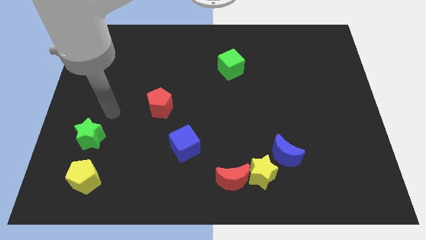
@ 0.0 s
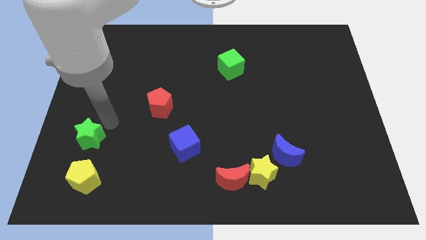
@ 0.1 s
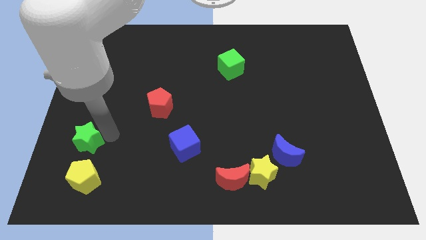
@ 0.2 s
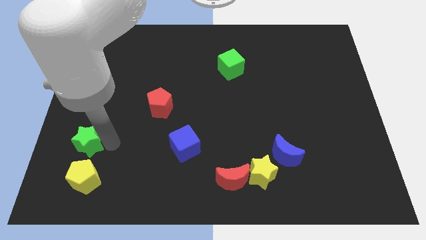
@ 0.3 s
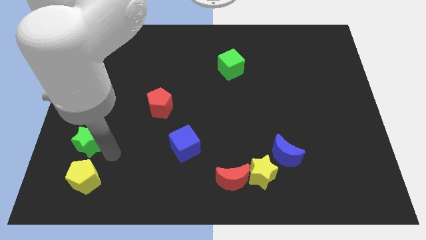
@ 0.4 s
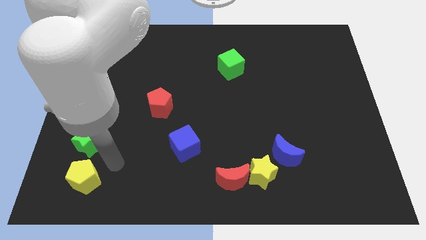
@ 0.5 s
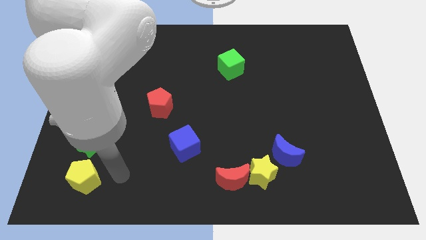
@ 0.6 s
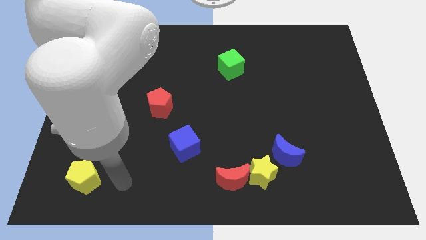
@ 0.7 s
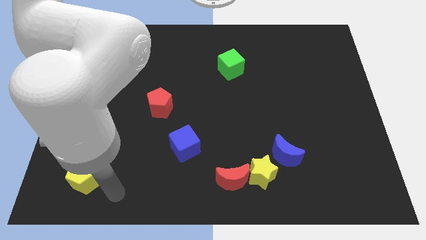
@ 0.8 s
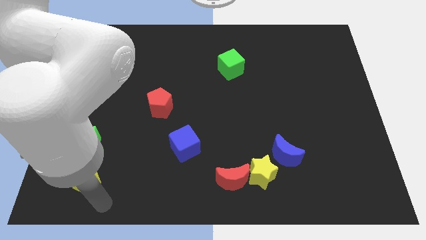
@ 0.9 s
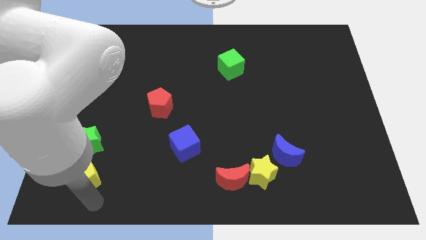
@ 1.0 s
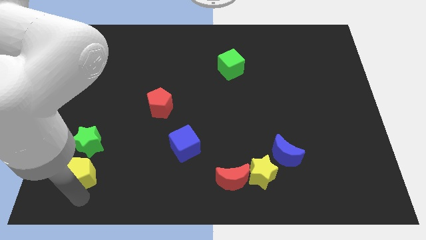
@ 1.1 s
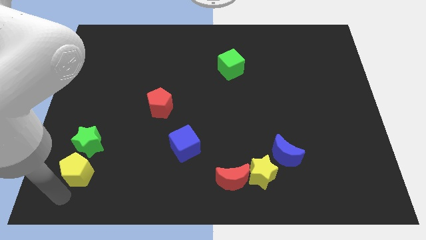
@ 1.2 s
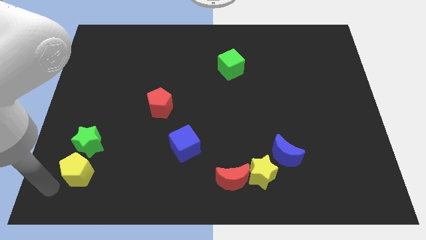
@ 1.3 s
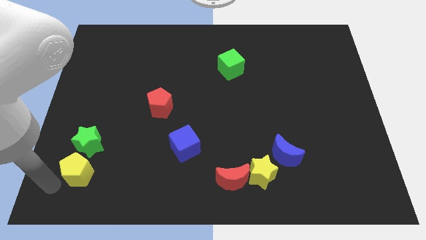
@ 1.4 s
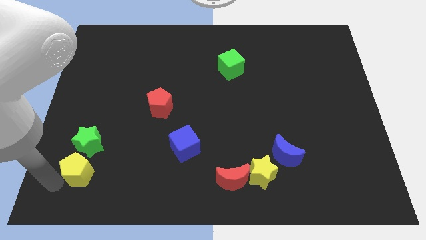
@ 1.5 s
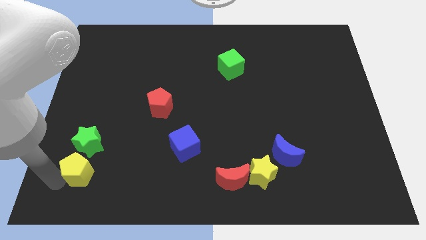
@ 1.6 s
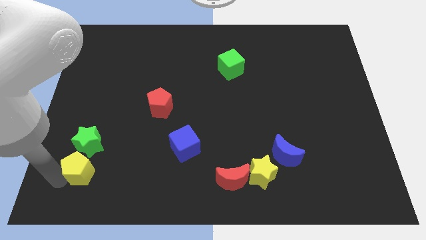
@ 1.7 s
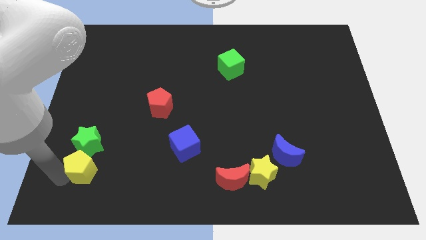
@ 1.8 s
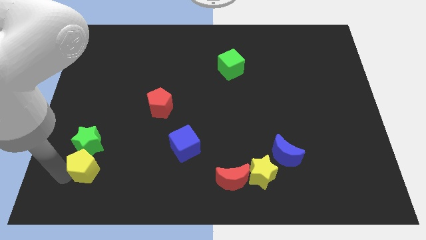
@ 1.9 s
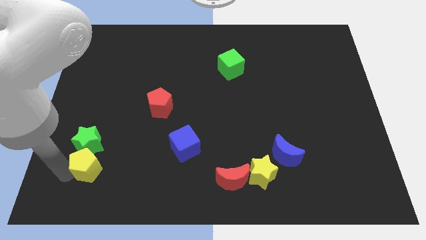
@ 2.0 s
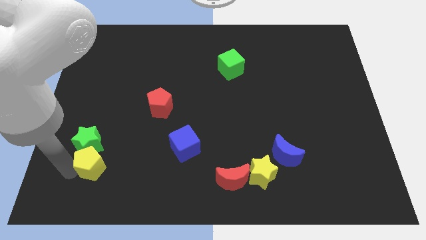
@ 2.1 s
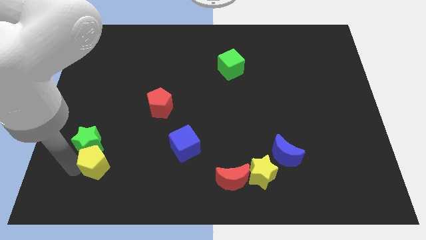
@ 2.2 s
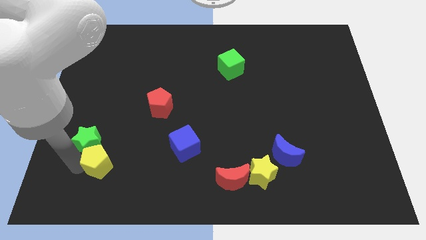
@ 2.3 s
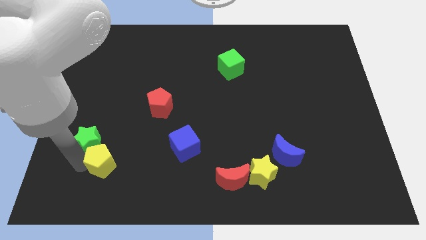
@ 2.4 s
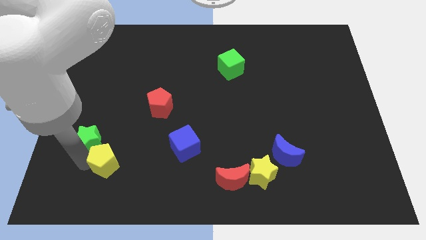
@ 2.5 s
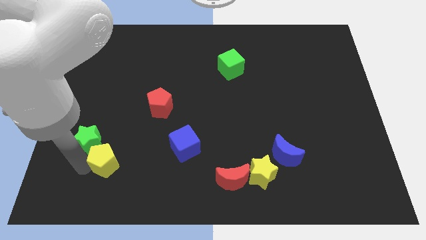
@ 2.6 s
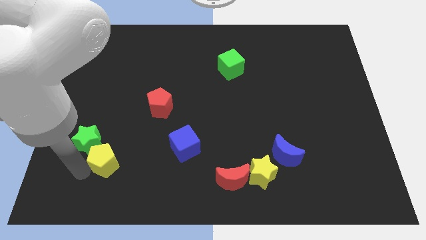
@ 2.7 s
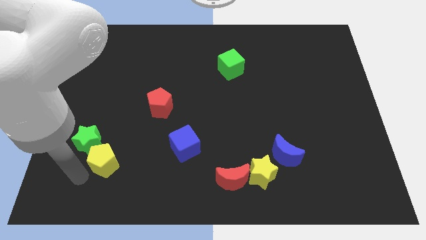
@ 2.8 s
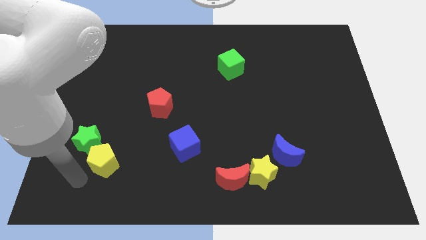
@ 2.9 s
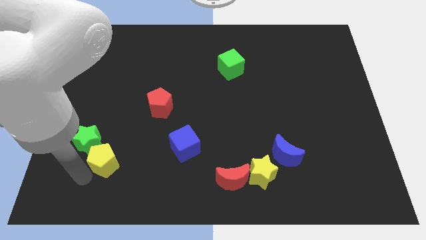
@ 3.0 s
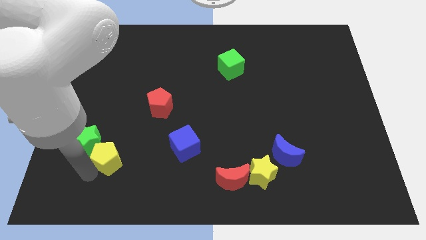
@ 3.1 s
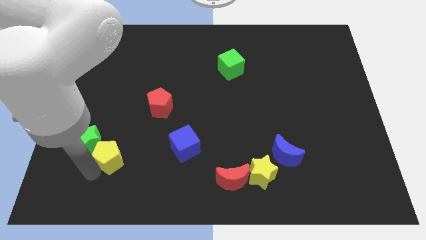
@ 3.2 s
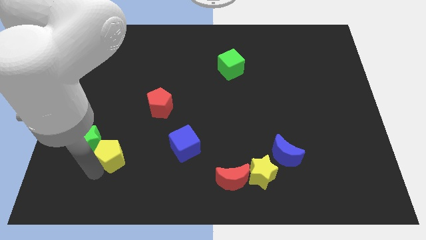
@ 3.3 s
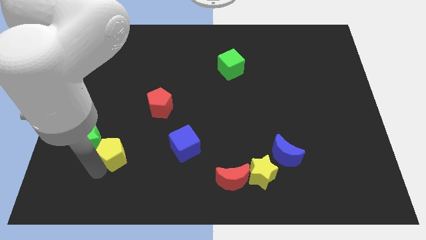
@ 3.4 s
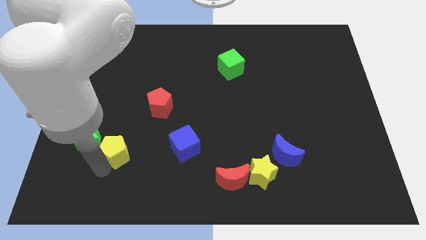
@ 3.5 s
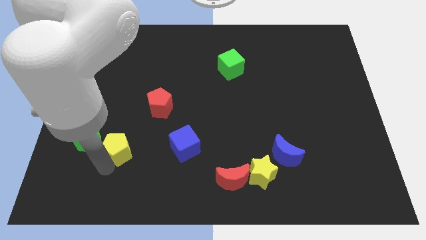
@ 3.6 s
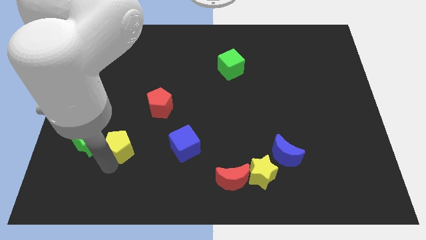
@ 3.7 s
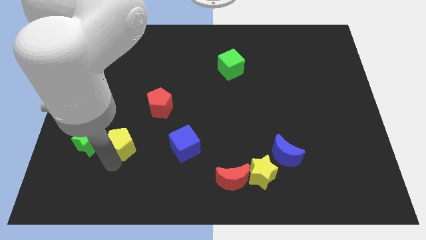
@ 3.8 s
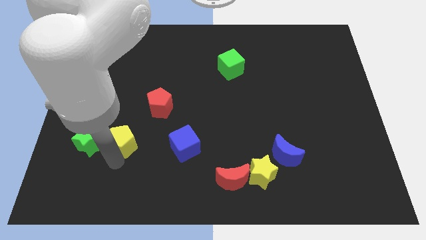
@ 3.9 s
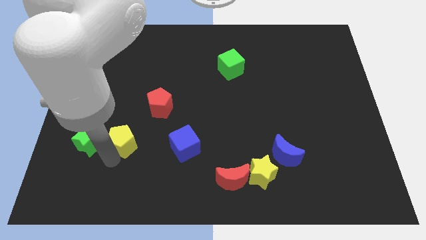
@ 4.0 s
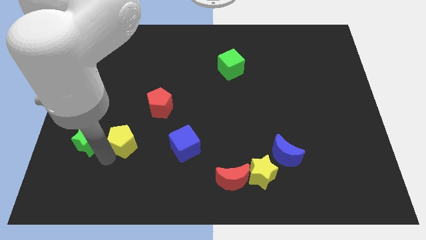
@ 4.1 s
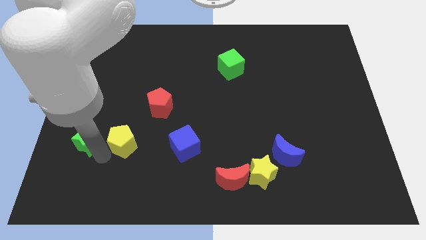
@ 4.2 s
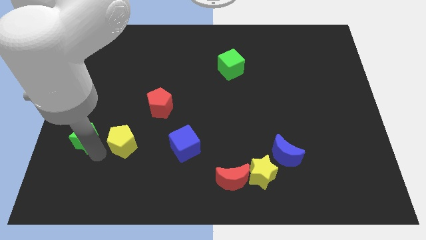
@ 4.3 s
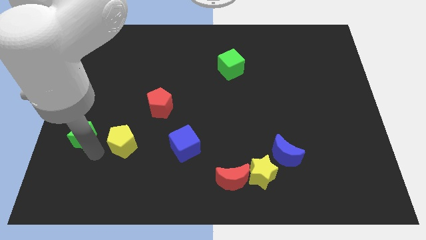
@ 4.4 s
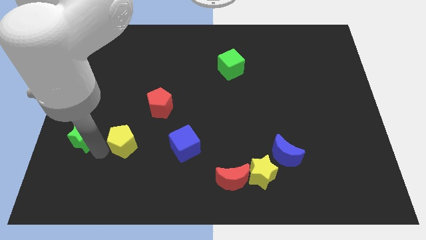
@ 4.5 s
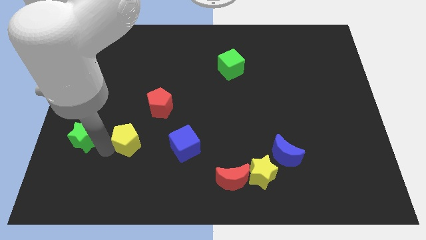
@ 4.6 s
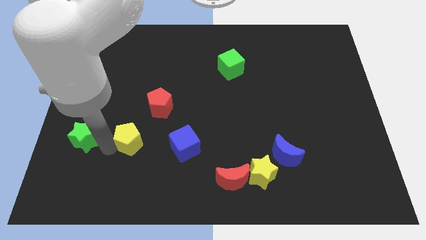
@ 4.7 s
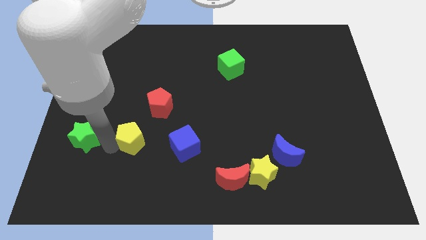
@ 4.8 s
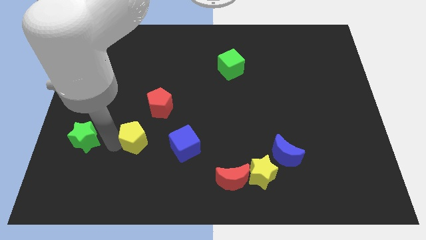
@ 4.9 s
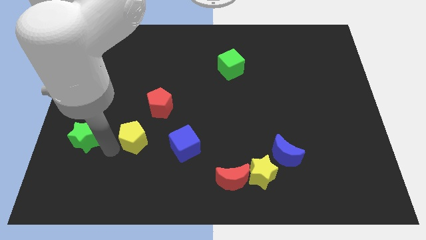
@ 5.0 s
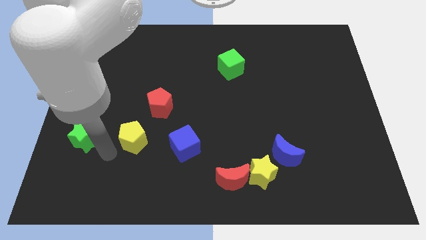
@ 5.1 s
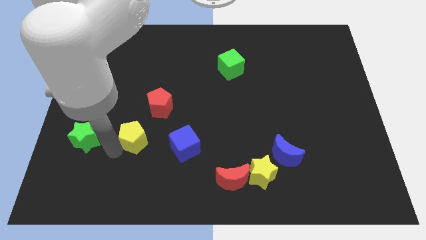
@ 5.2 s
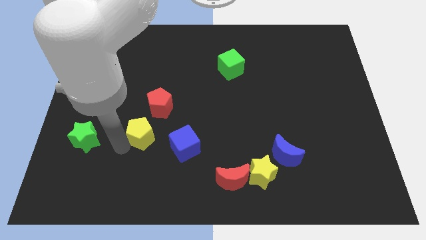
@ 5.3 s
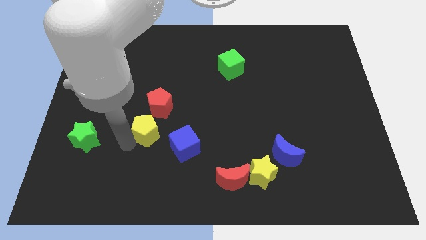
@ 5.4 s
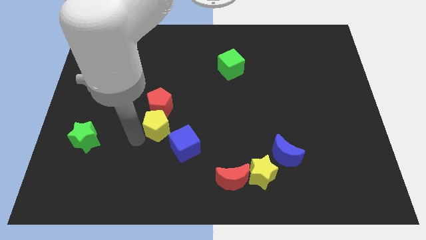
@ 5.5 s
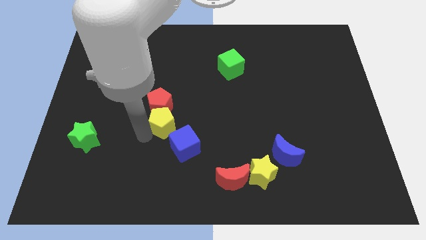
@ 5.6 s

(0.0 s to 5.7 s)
move the yellow pentagon upwards and then to the right

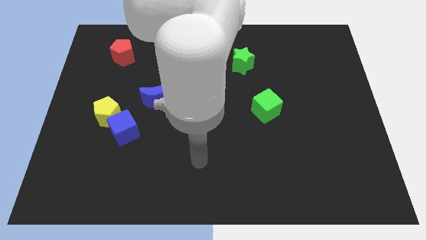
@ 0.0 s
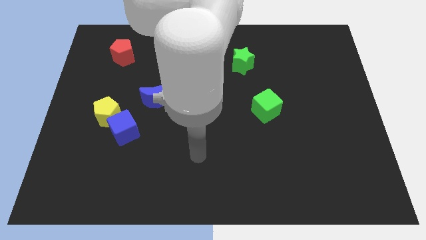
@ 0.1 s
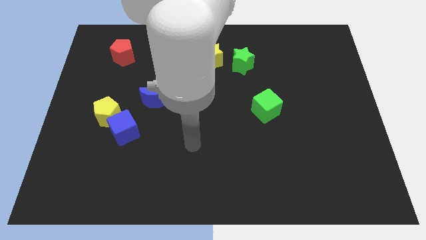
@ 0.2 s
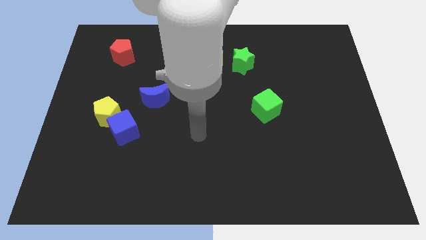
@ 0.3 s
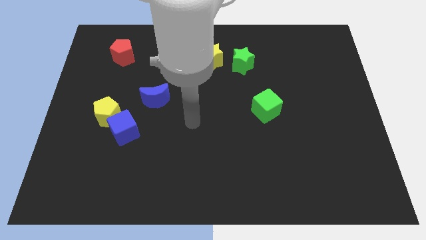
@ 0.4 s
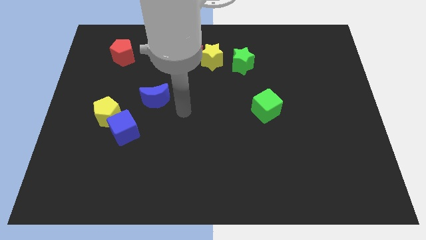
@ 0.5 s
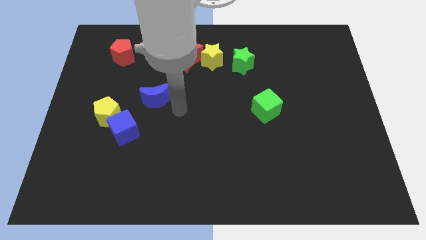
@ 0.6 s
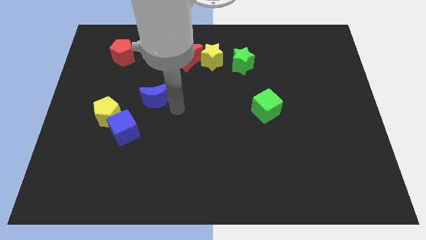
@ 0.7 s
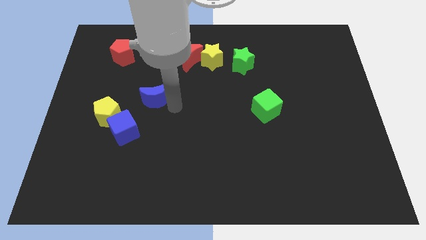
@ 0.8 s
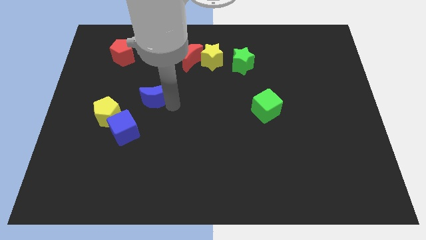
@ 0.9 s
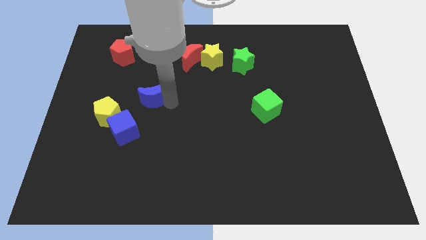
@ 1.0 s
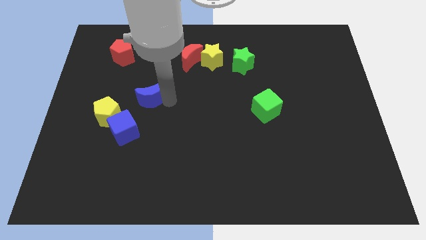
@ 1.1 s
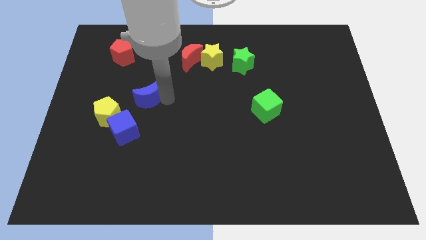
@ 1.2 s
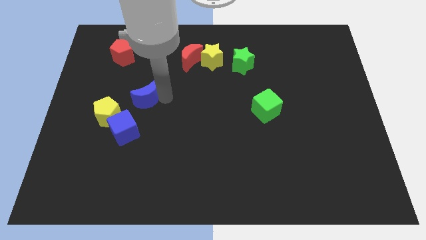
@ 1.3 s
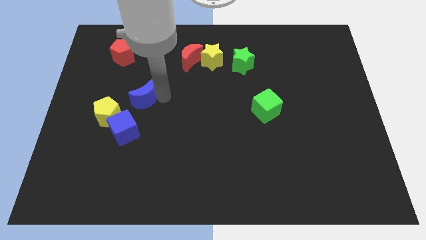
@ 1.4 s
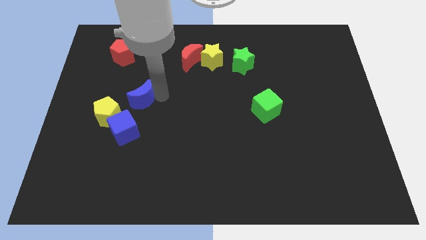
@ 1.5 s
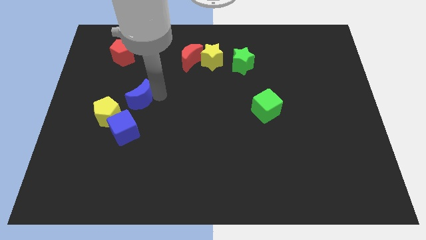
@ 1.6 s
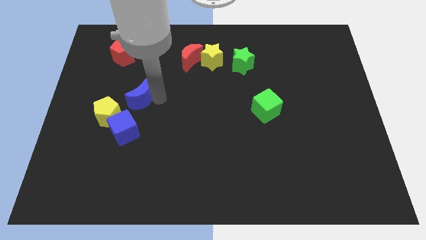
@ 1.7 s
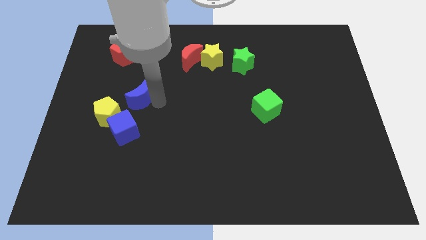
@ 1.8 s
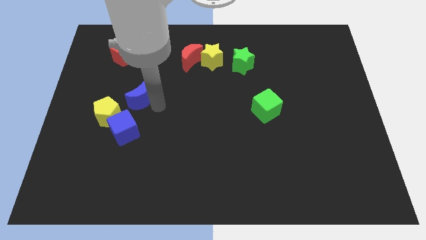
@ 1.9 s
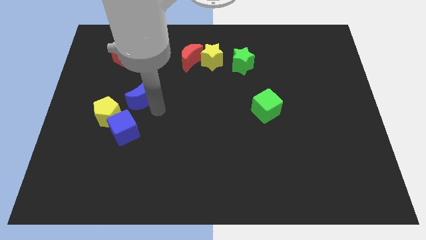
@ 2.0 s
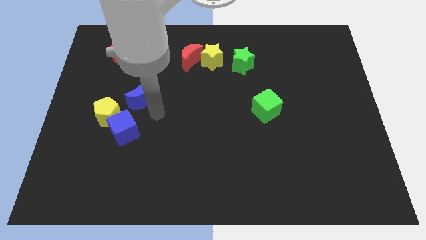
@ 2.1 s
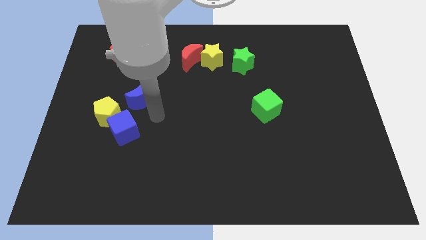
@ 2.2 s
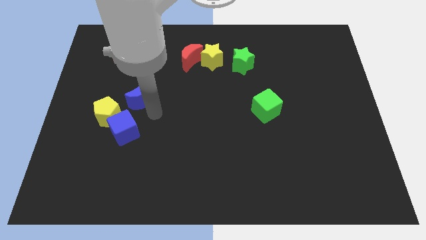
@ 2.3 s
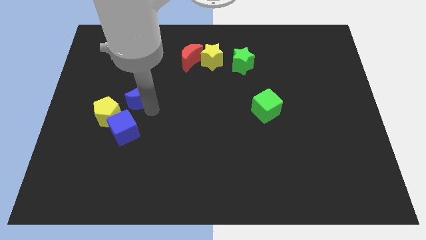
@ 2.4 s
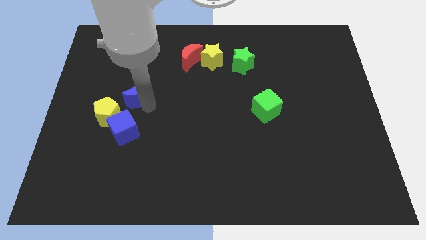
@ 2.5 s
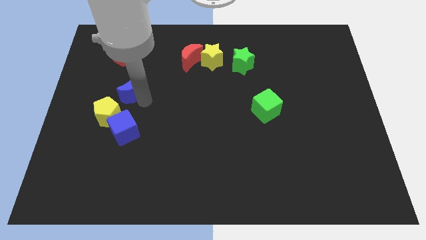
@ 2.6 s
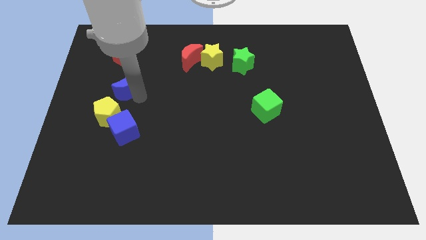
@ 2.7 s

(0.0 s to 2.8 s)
slightly move the blue moon up and then to the left
